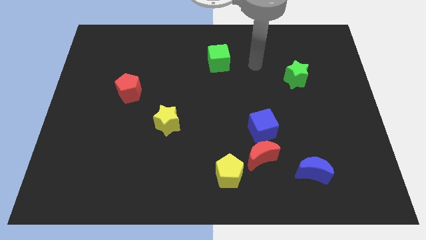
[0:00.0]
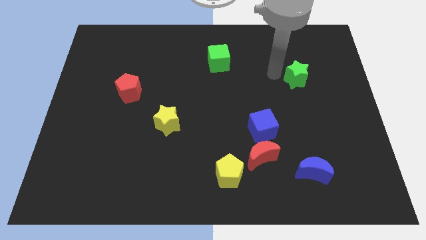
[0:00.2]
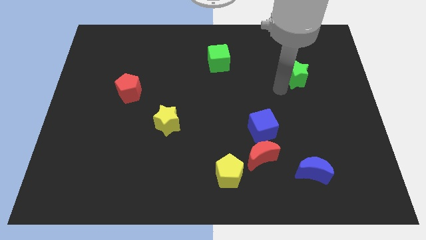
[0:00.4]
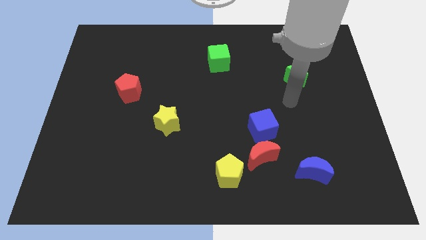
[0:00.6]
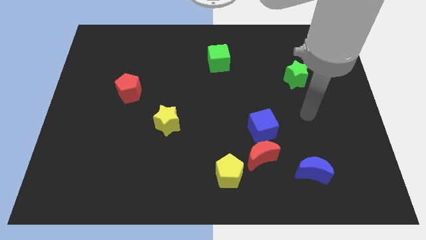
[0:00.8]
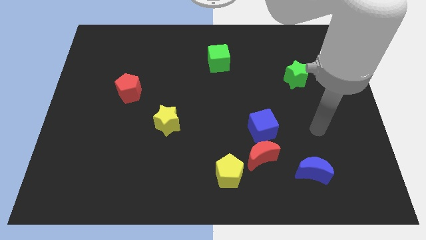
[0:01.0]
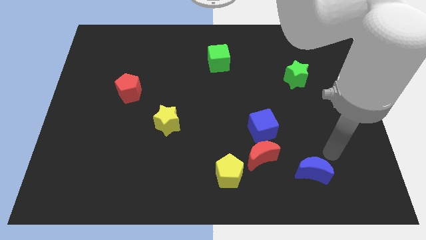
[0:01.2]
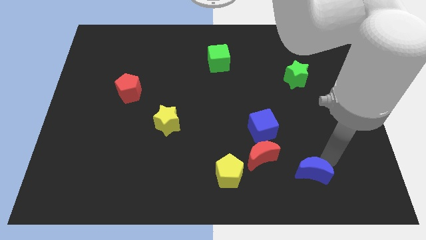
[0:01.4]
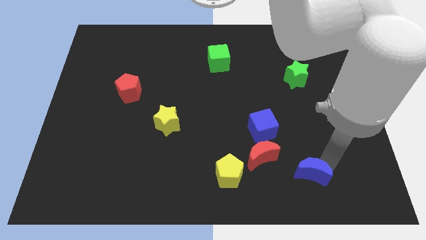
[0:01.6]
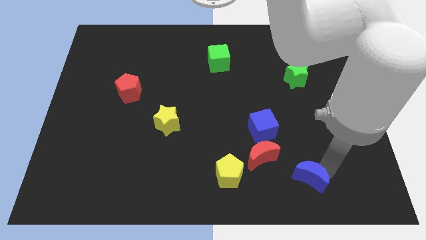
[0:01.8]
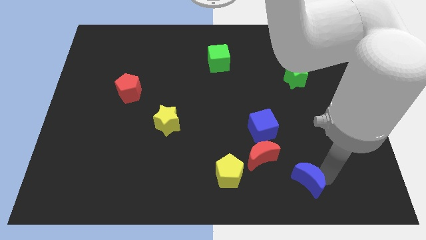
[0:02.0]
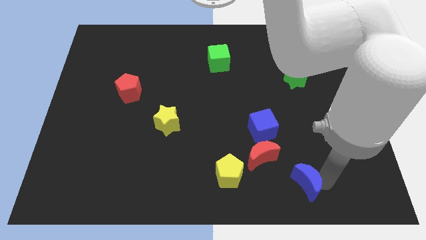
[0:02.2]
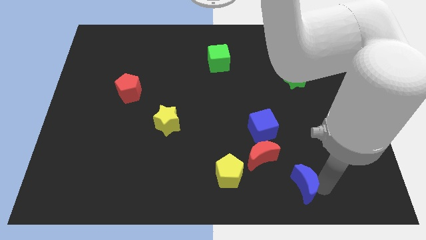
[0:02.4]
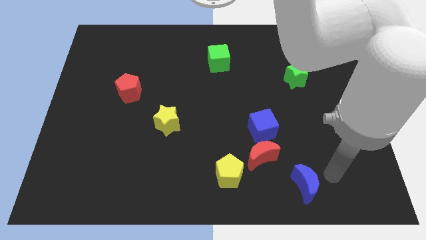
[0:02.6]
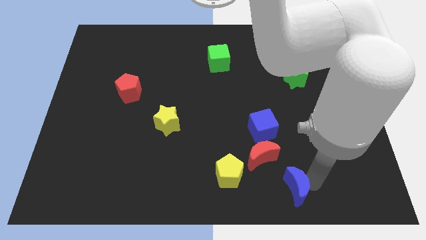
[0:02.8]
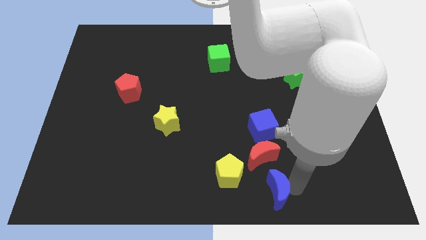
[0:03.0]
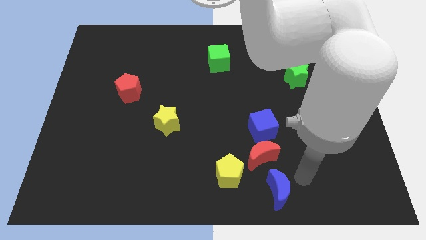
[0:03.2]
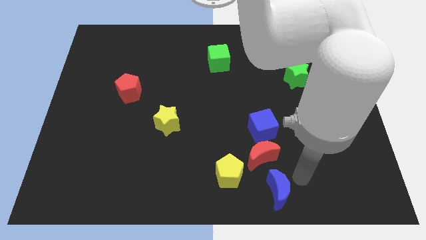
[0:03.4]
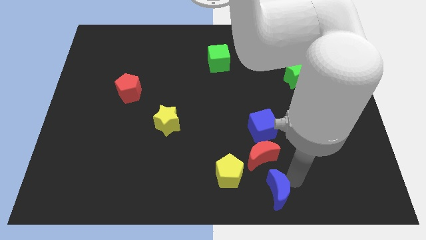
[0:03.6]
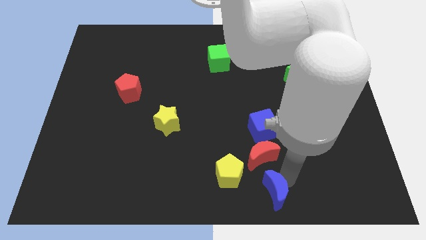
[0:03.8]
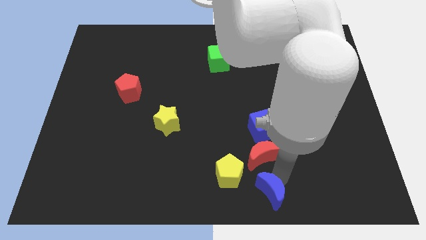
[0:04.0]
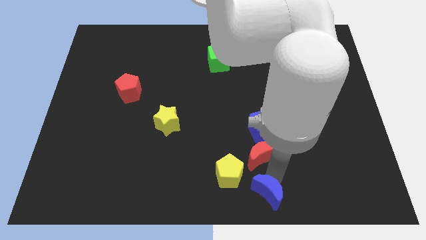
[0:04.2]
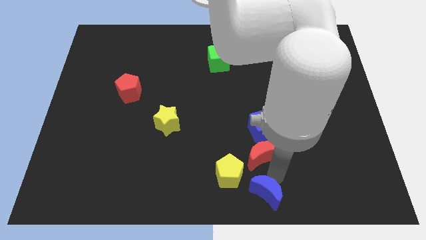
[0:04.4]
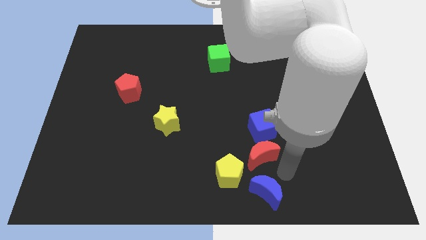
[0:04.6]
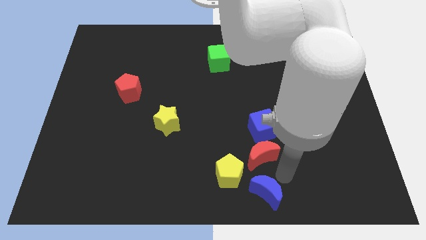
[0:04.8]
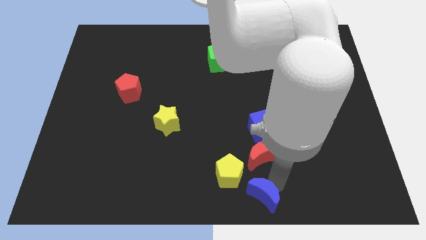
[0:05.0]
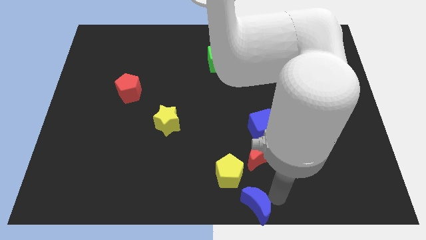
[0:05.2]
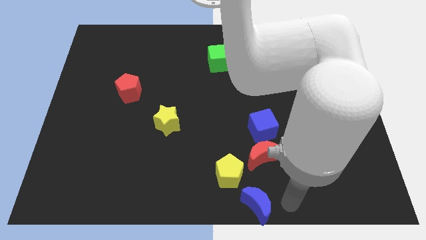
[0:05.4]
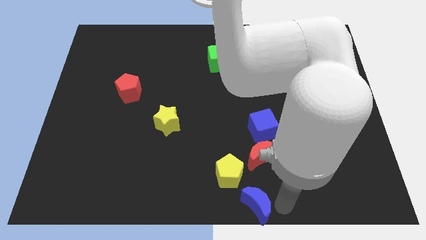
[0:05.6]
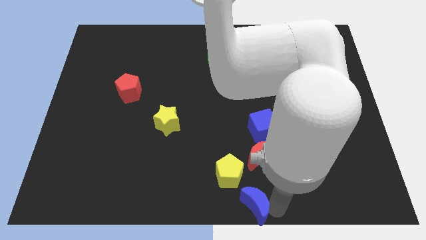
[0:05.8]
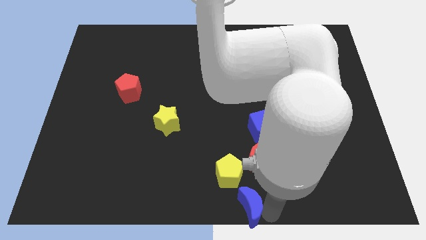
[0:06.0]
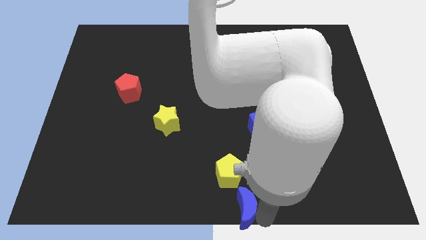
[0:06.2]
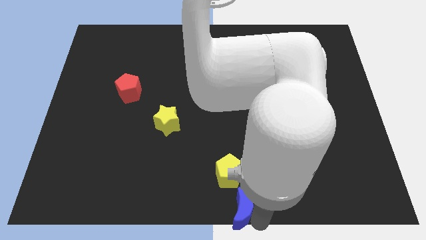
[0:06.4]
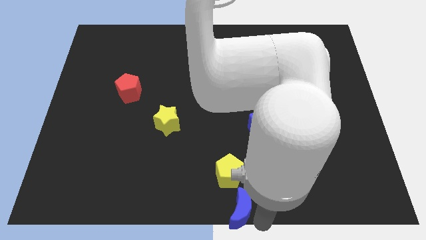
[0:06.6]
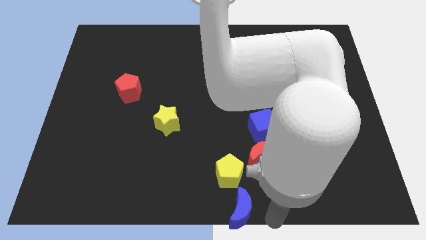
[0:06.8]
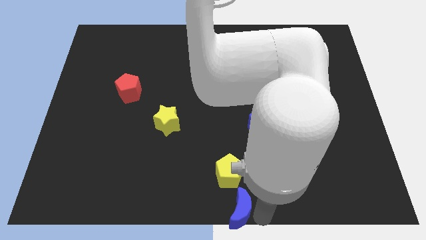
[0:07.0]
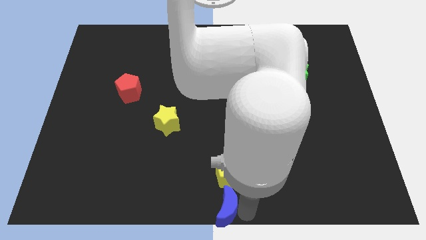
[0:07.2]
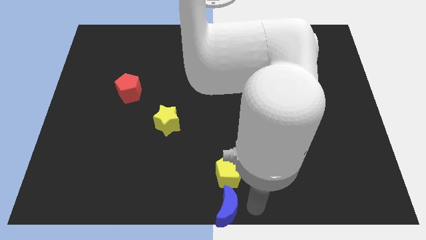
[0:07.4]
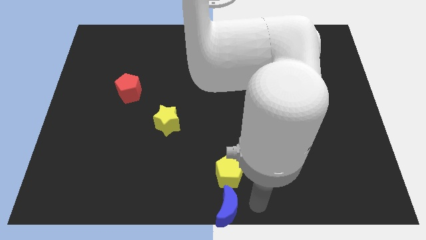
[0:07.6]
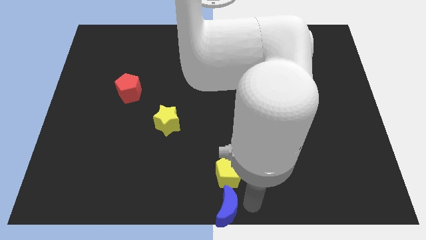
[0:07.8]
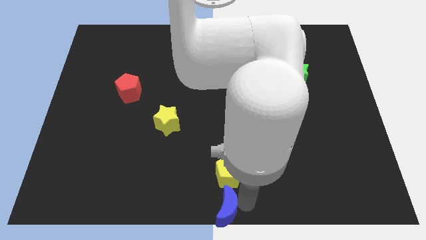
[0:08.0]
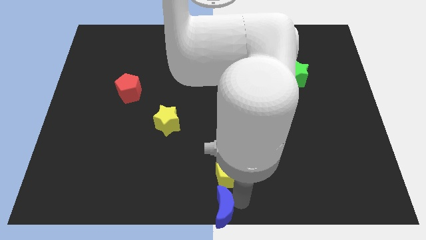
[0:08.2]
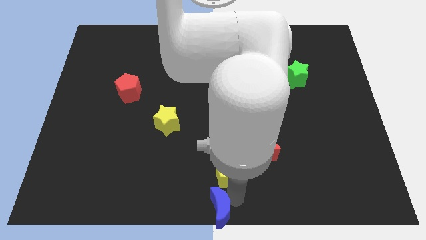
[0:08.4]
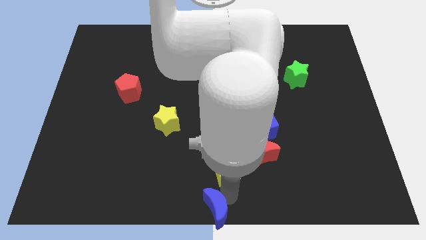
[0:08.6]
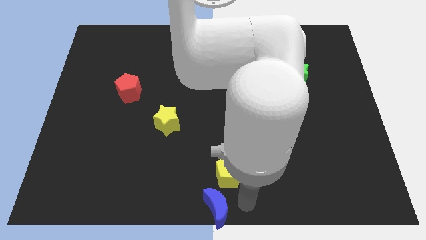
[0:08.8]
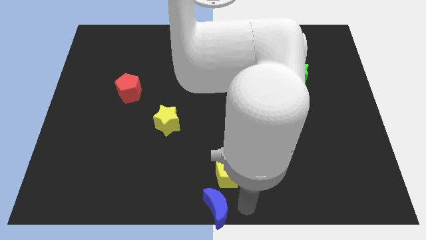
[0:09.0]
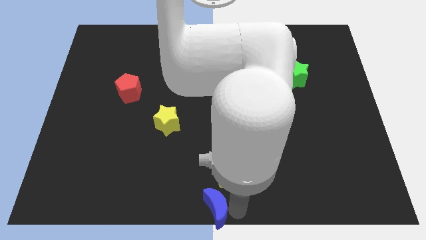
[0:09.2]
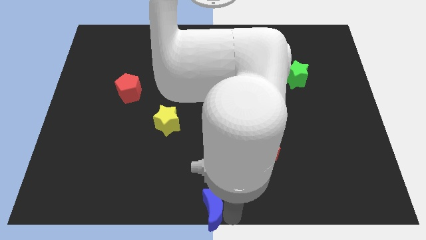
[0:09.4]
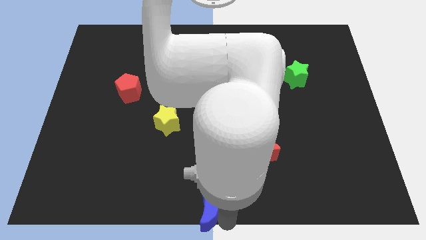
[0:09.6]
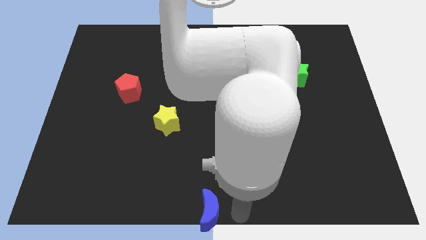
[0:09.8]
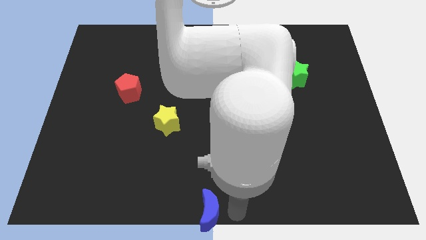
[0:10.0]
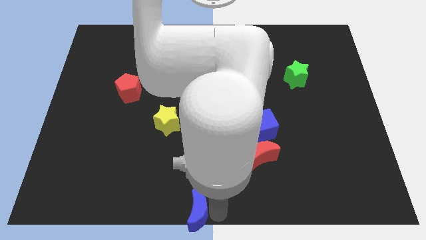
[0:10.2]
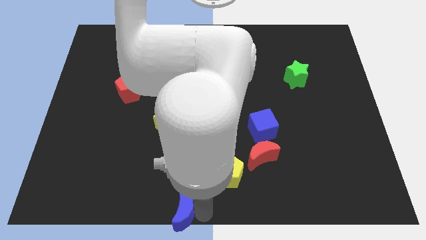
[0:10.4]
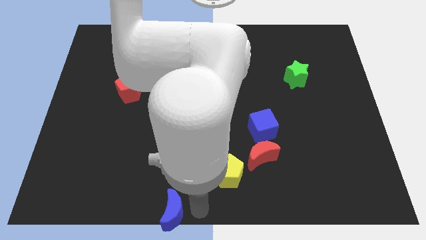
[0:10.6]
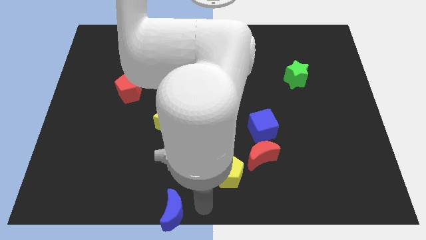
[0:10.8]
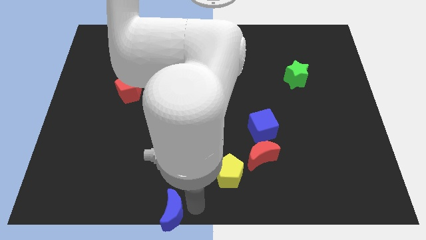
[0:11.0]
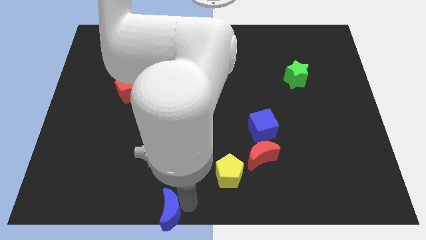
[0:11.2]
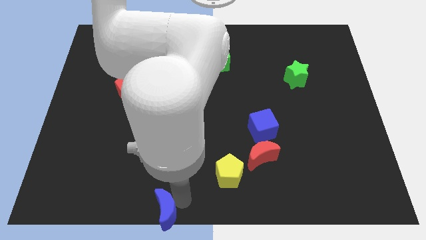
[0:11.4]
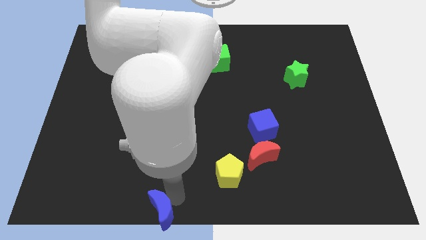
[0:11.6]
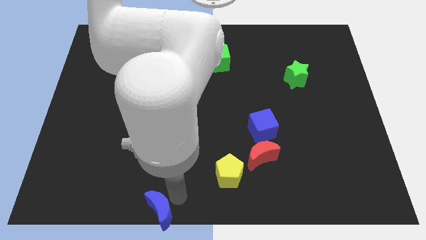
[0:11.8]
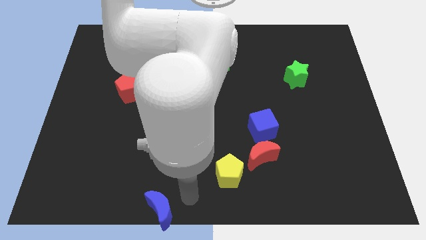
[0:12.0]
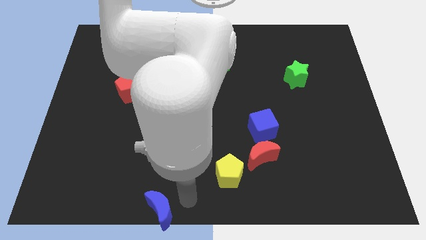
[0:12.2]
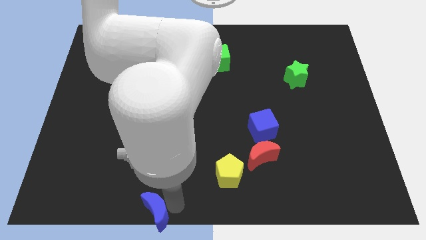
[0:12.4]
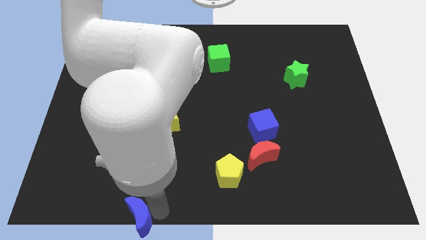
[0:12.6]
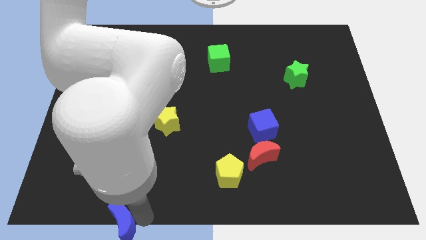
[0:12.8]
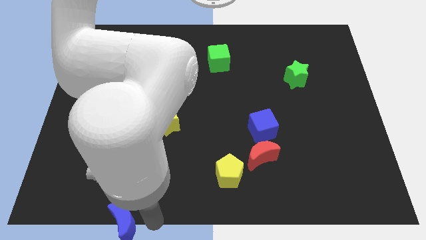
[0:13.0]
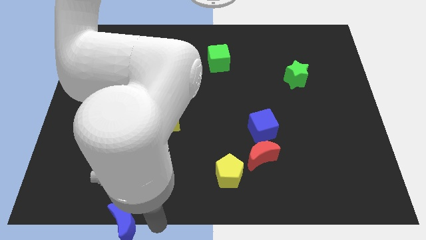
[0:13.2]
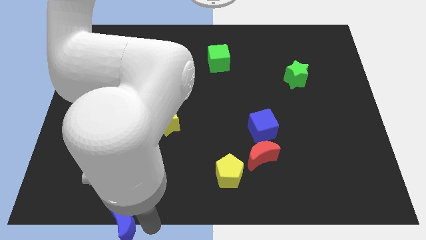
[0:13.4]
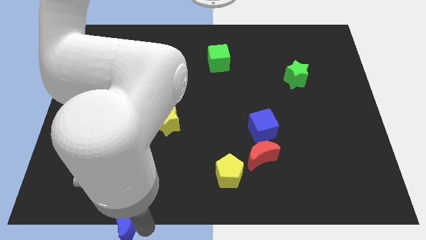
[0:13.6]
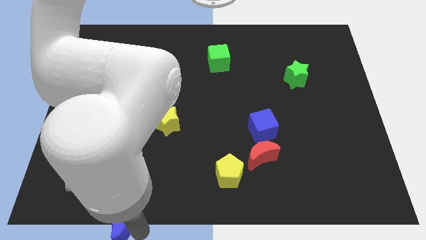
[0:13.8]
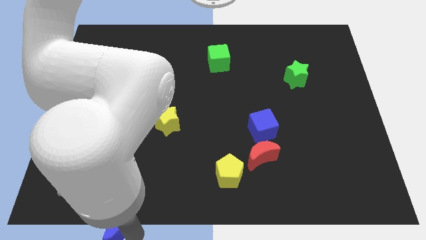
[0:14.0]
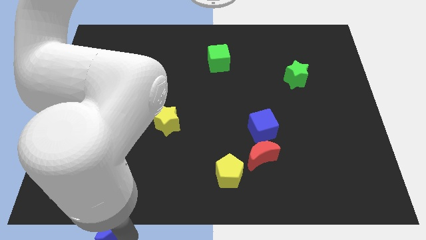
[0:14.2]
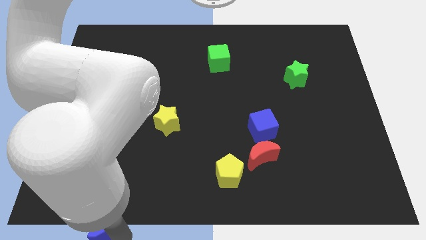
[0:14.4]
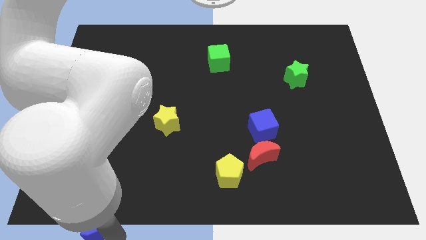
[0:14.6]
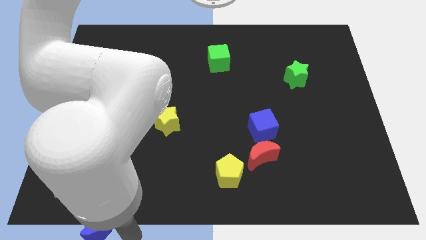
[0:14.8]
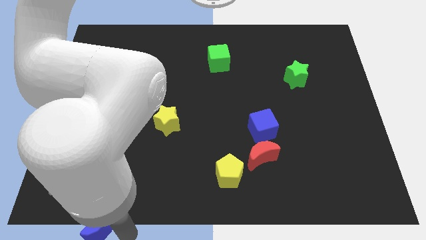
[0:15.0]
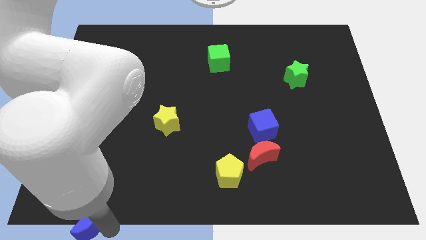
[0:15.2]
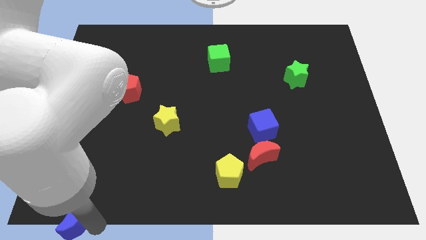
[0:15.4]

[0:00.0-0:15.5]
slide the blue moon to the lower left corner
